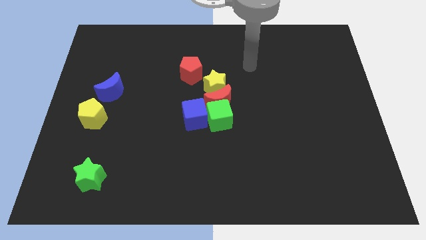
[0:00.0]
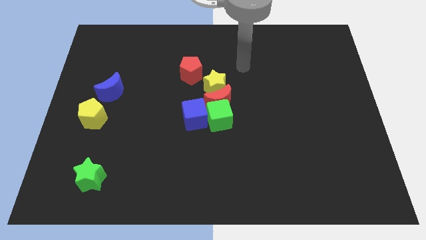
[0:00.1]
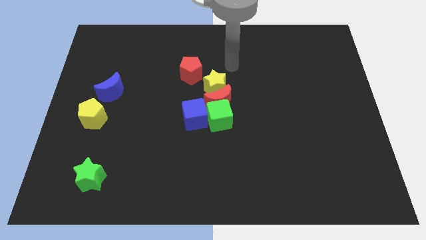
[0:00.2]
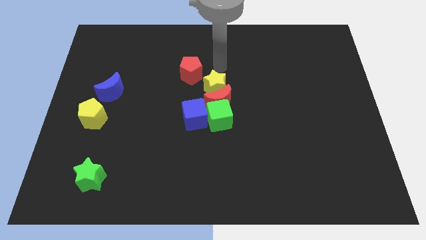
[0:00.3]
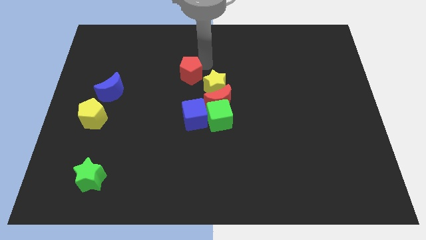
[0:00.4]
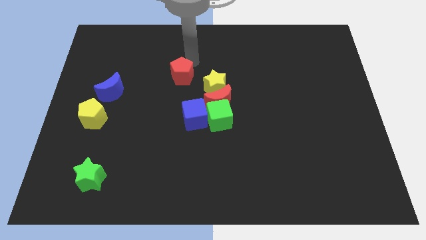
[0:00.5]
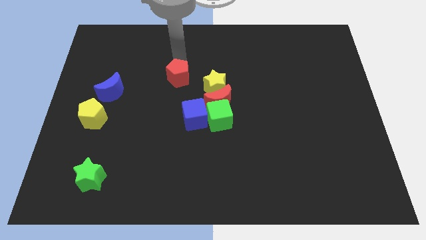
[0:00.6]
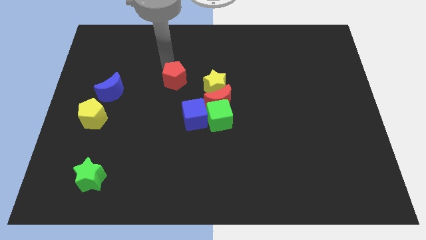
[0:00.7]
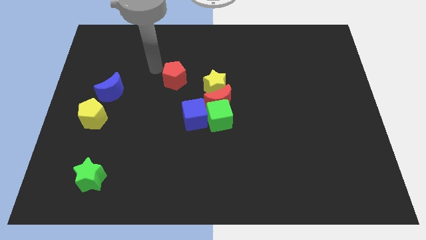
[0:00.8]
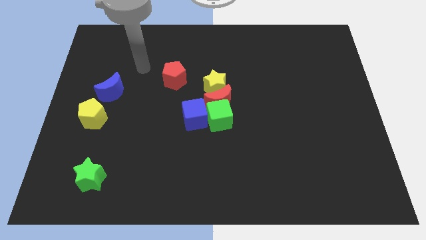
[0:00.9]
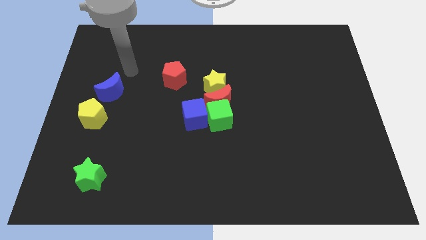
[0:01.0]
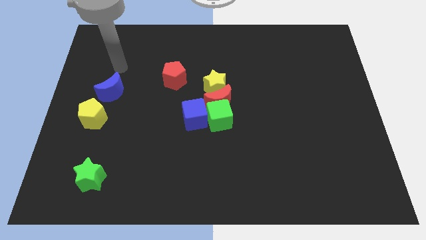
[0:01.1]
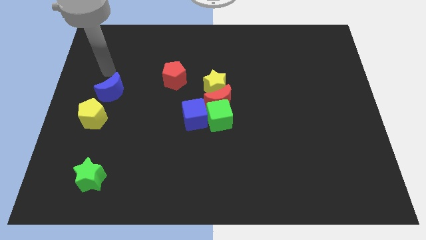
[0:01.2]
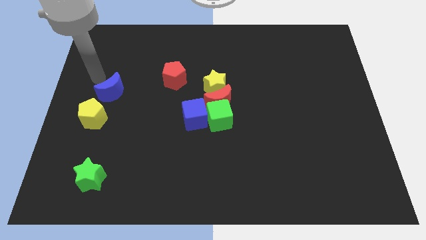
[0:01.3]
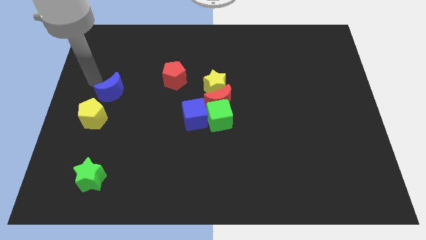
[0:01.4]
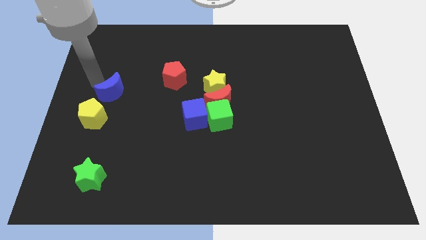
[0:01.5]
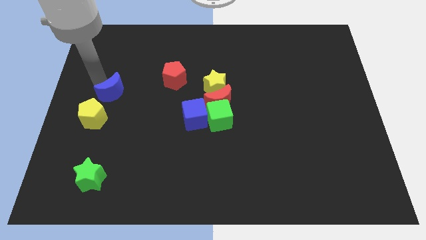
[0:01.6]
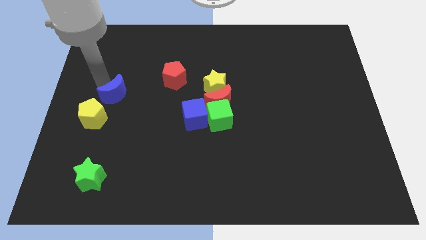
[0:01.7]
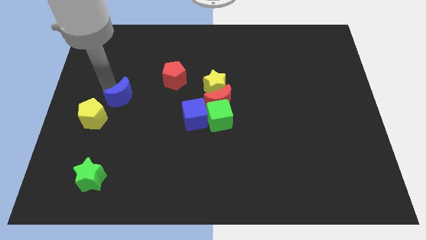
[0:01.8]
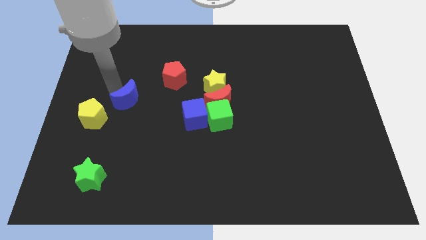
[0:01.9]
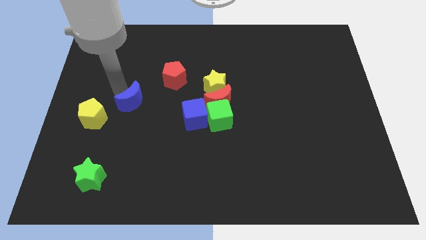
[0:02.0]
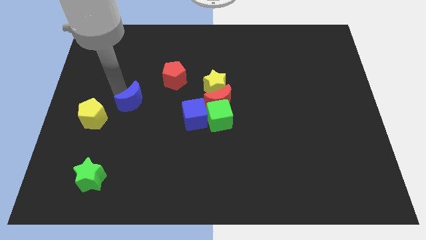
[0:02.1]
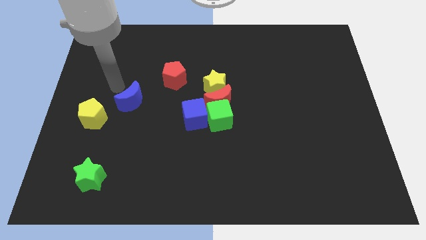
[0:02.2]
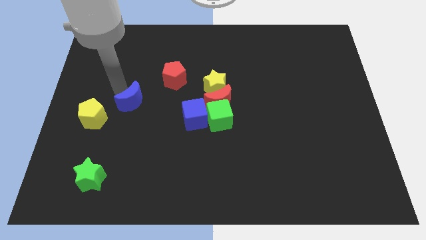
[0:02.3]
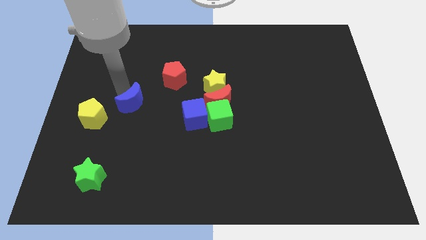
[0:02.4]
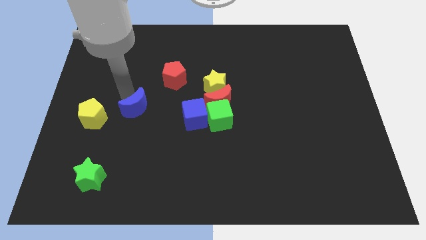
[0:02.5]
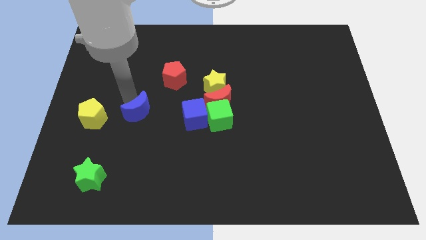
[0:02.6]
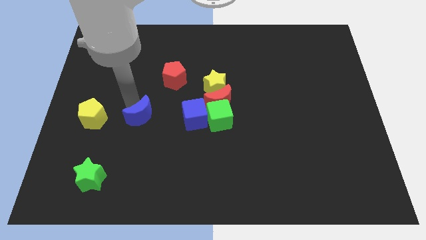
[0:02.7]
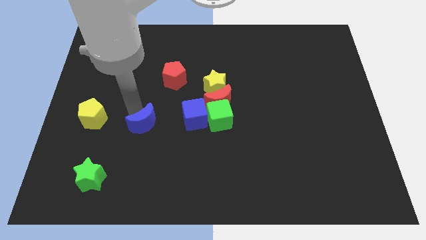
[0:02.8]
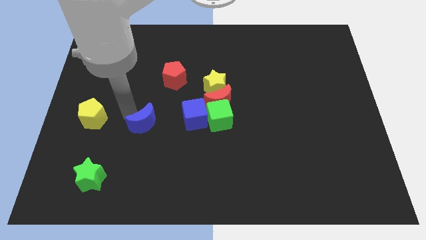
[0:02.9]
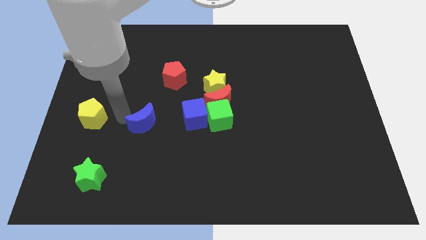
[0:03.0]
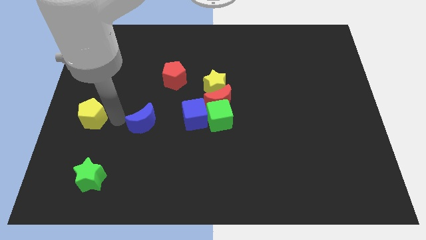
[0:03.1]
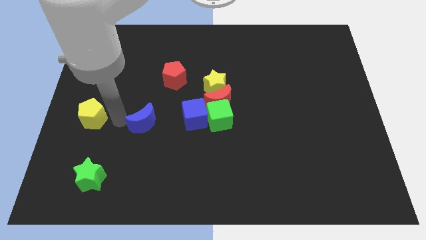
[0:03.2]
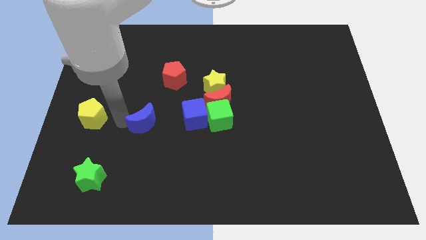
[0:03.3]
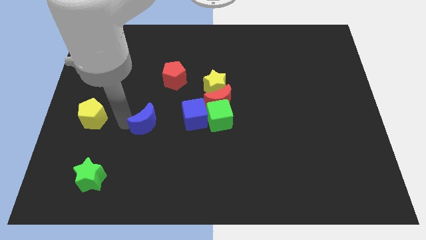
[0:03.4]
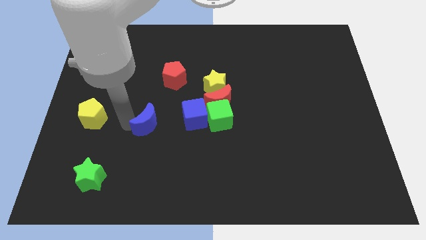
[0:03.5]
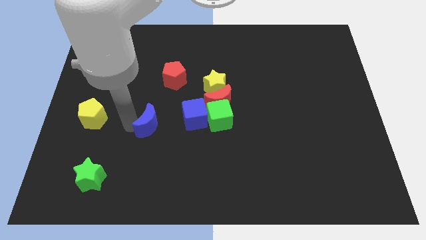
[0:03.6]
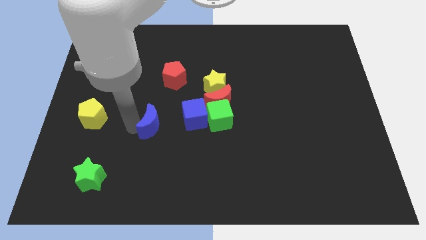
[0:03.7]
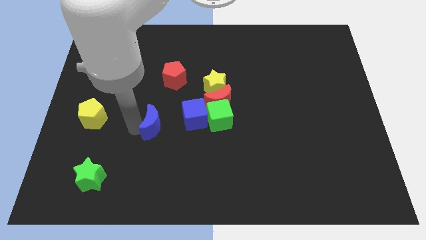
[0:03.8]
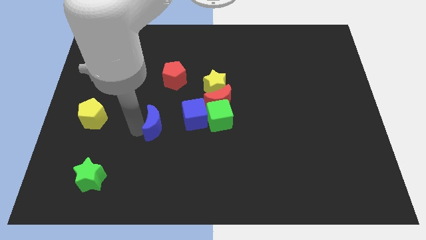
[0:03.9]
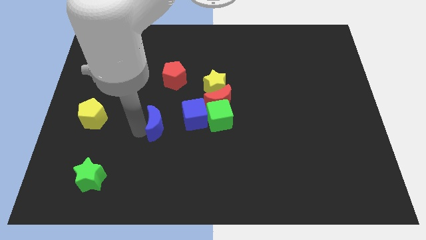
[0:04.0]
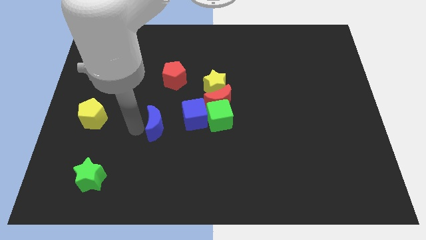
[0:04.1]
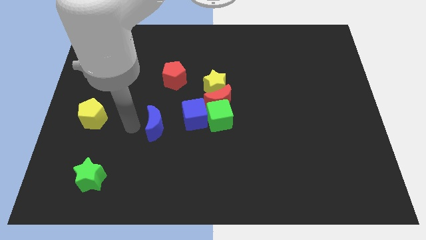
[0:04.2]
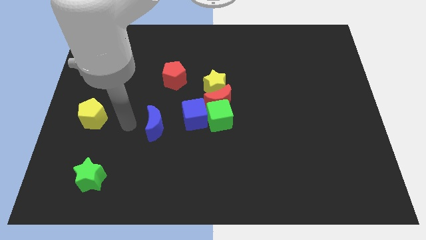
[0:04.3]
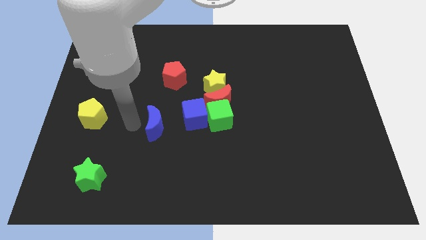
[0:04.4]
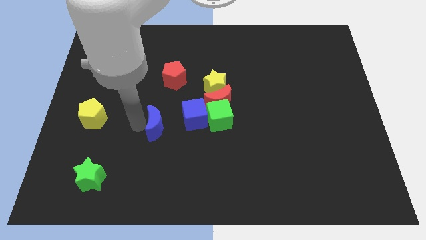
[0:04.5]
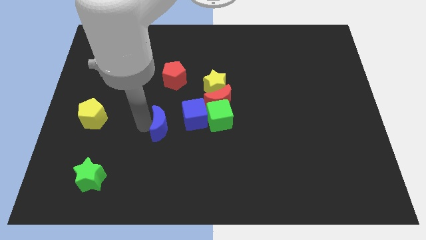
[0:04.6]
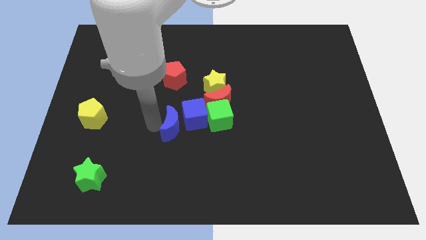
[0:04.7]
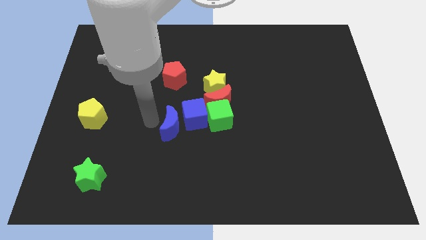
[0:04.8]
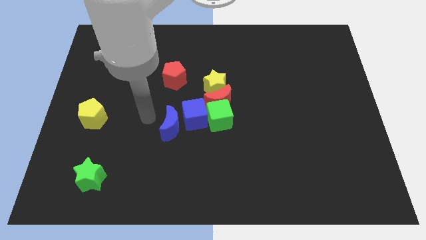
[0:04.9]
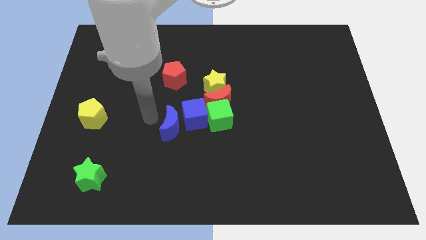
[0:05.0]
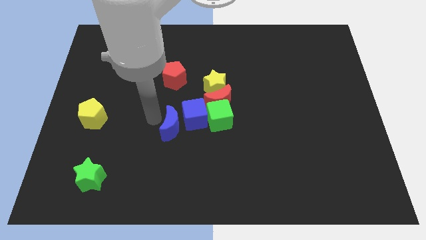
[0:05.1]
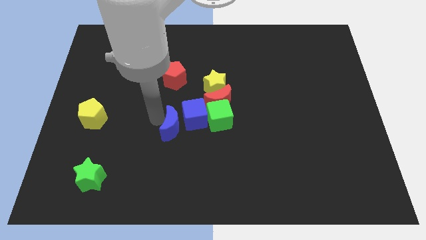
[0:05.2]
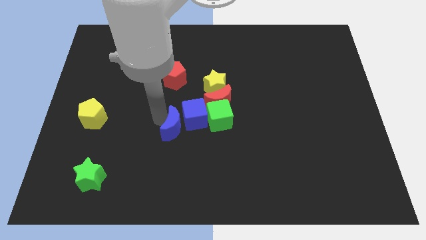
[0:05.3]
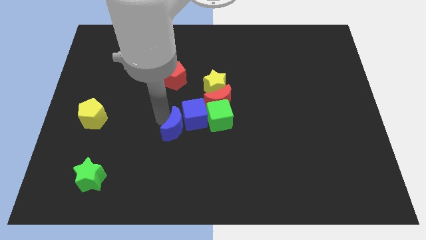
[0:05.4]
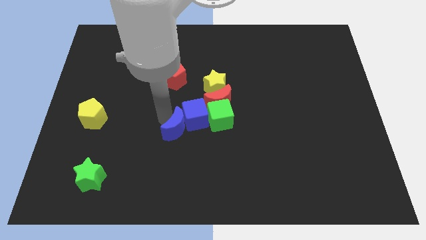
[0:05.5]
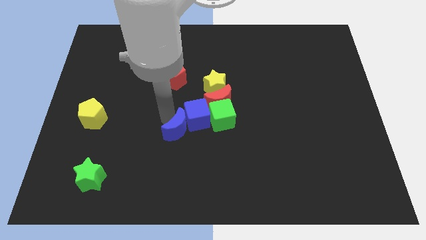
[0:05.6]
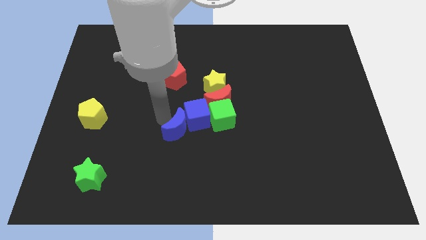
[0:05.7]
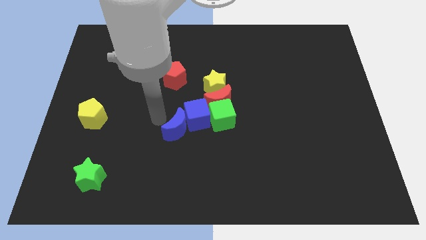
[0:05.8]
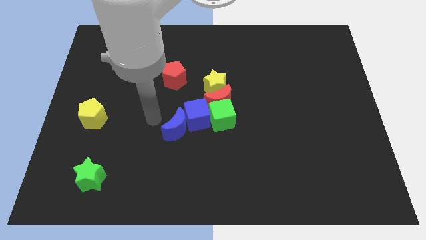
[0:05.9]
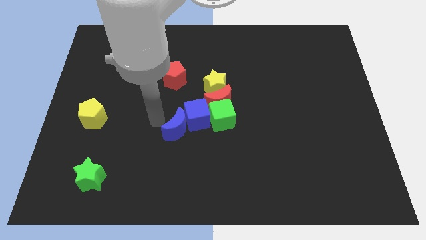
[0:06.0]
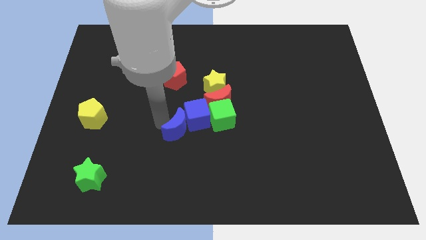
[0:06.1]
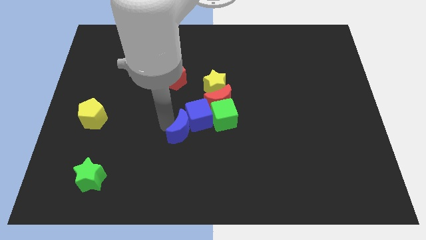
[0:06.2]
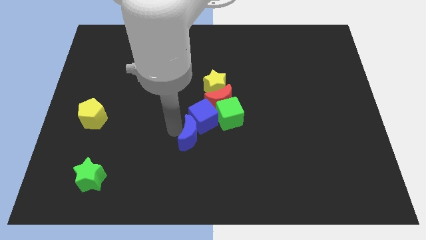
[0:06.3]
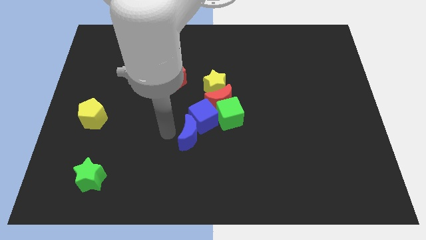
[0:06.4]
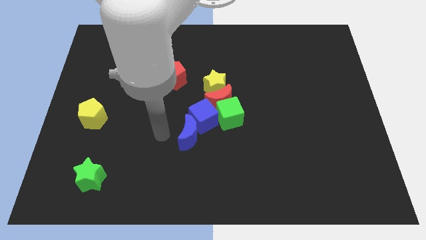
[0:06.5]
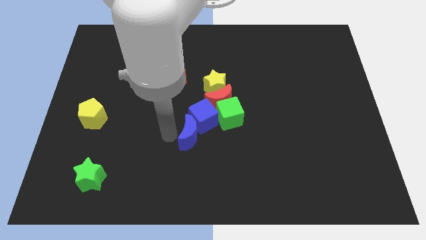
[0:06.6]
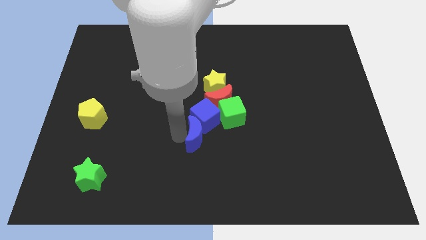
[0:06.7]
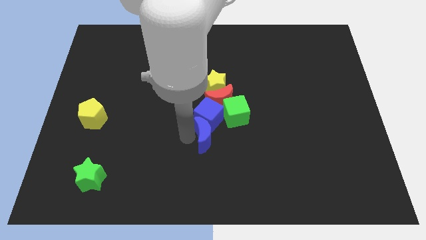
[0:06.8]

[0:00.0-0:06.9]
move the blue moon diagonally down and to the right of the blue cube

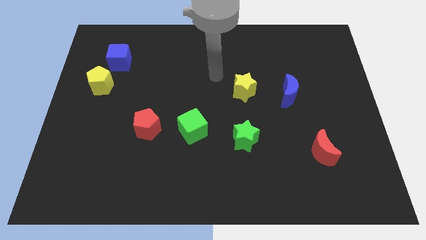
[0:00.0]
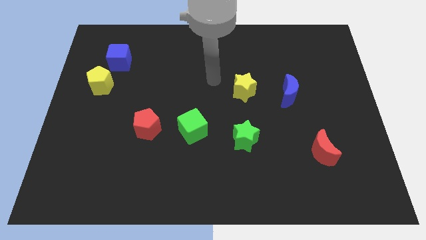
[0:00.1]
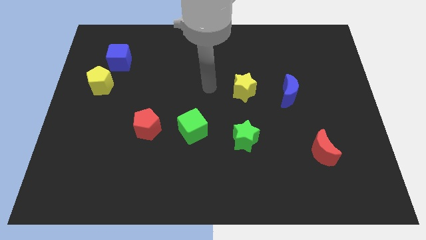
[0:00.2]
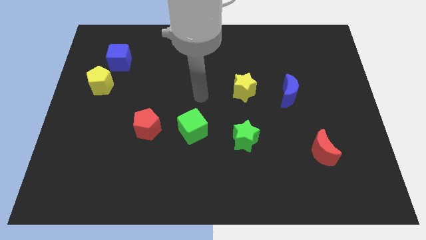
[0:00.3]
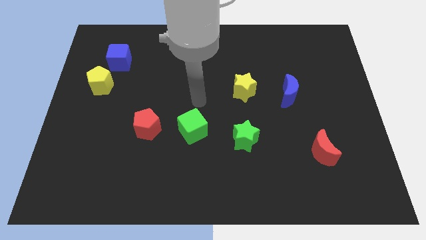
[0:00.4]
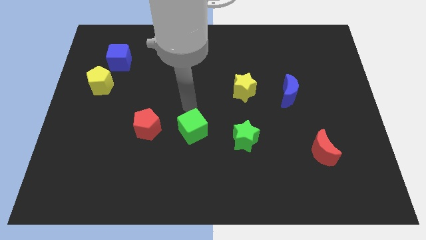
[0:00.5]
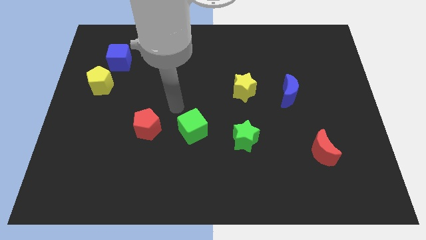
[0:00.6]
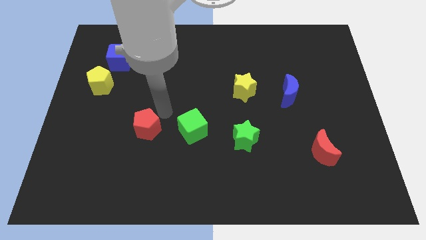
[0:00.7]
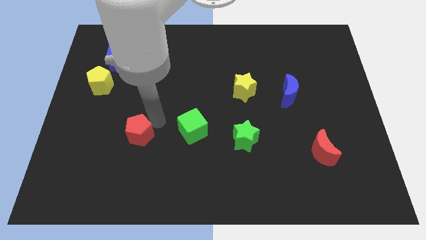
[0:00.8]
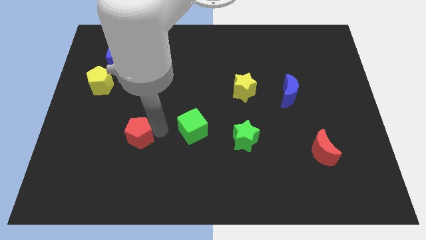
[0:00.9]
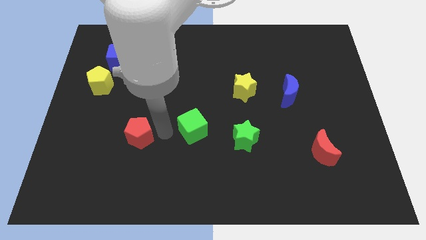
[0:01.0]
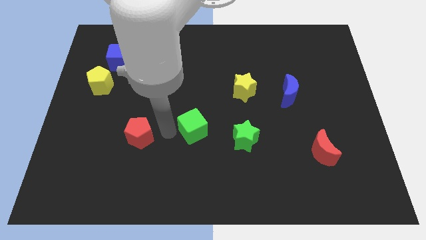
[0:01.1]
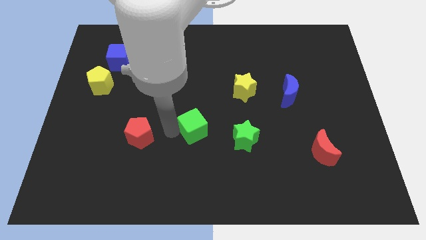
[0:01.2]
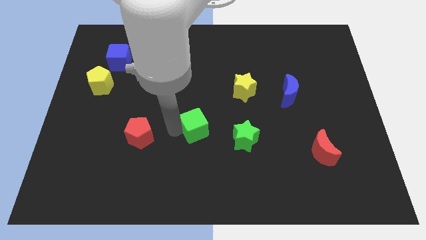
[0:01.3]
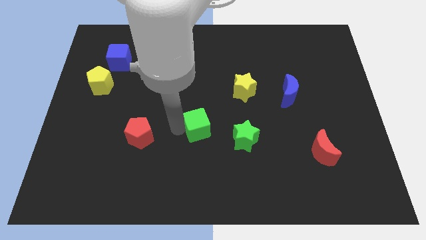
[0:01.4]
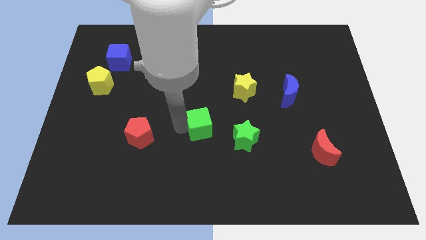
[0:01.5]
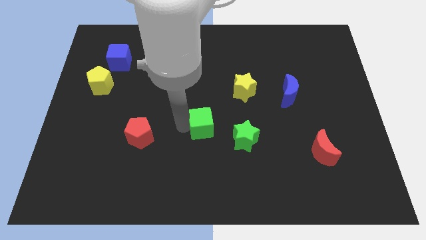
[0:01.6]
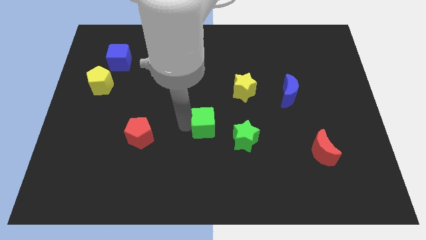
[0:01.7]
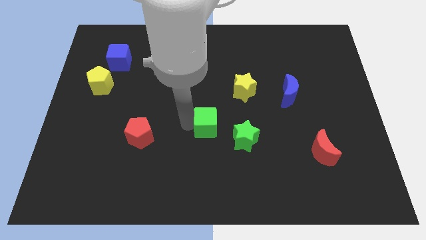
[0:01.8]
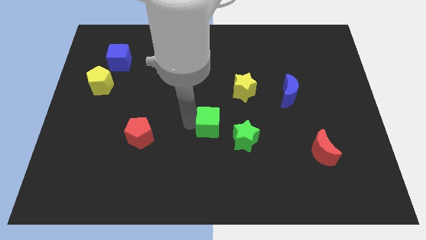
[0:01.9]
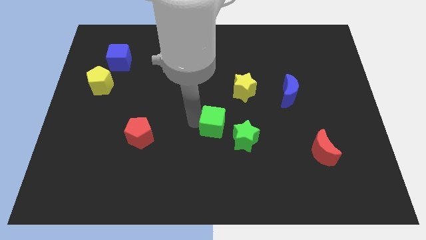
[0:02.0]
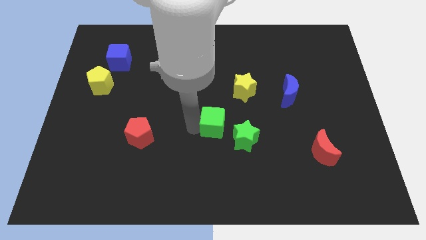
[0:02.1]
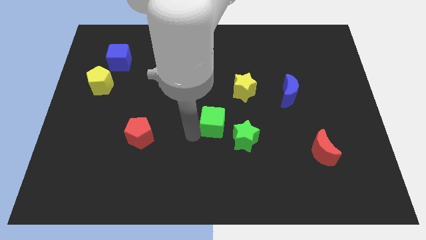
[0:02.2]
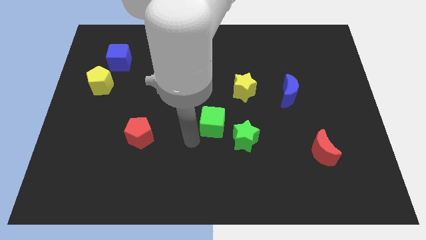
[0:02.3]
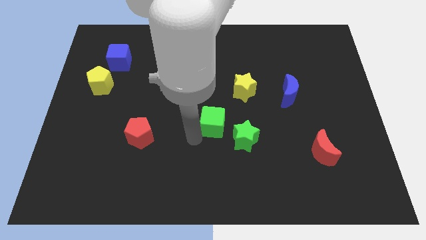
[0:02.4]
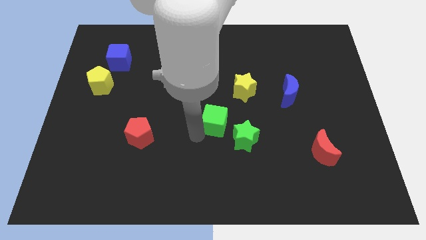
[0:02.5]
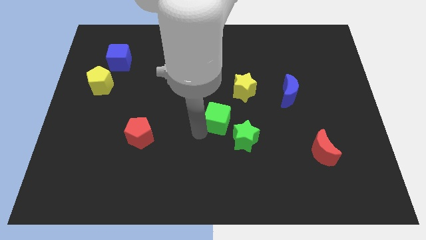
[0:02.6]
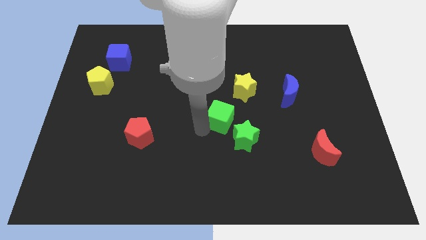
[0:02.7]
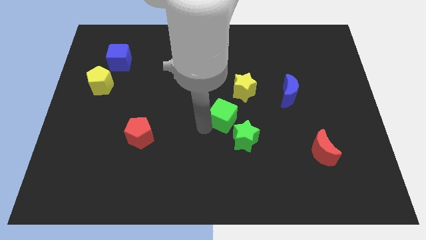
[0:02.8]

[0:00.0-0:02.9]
put the green cube to the top of the green star
